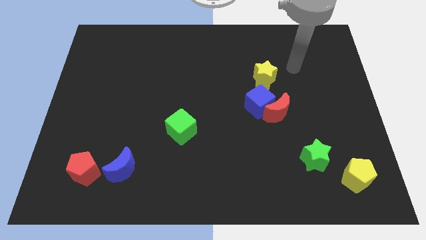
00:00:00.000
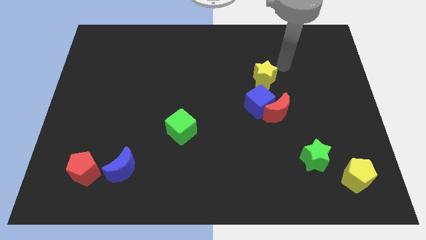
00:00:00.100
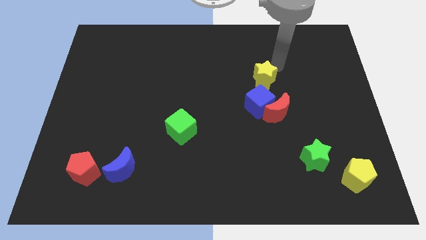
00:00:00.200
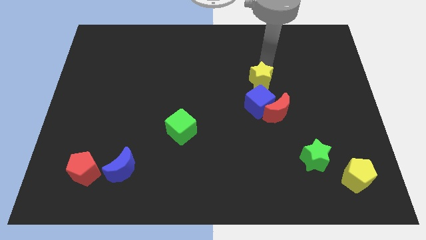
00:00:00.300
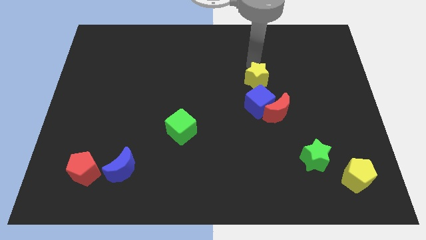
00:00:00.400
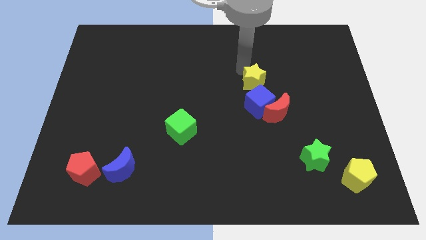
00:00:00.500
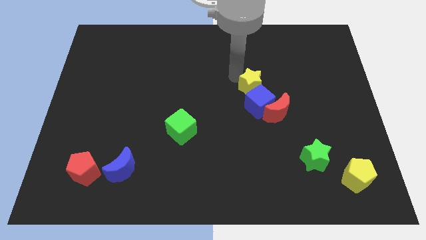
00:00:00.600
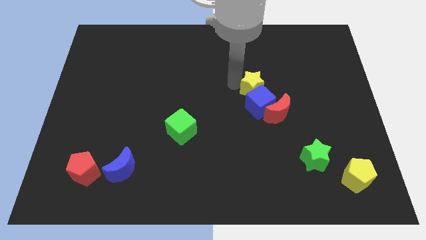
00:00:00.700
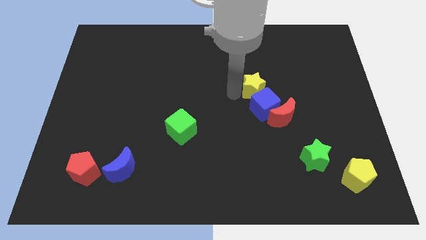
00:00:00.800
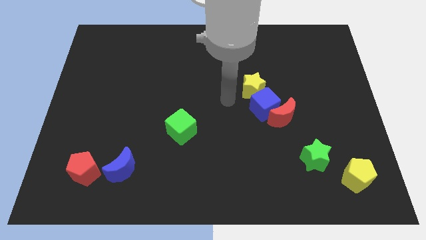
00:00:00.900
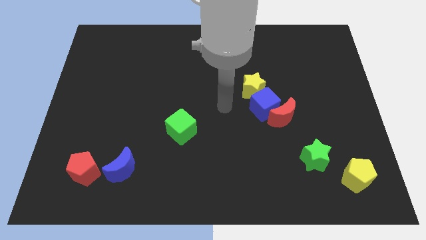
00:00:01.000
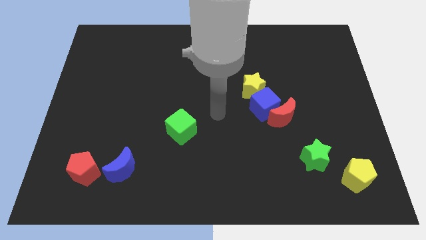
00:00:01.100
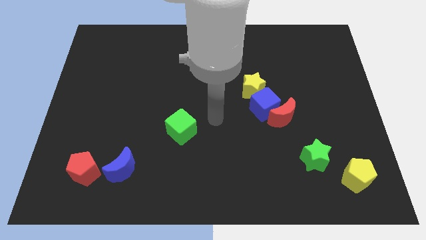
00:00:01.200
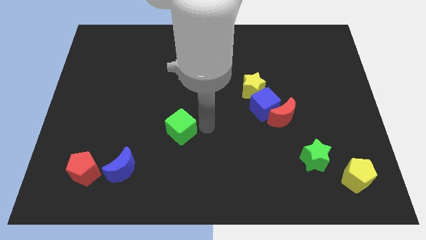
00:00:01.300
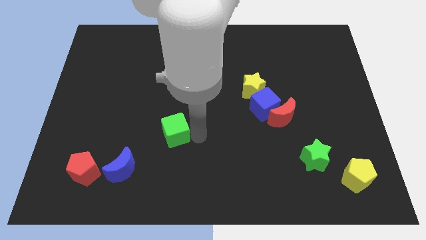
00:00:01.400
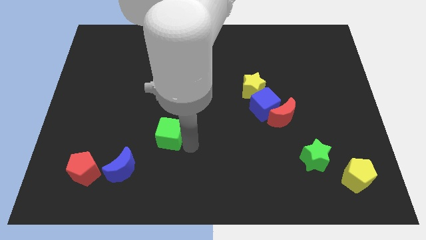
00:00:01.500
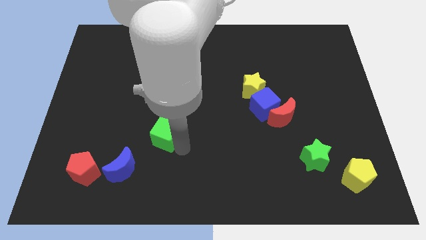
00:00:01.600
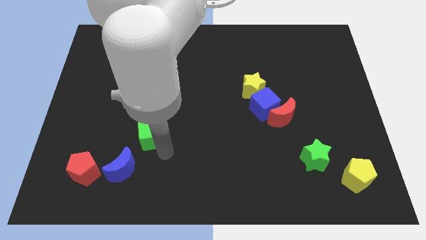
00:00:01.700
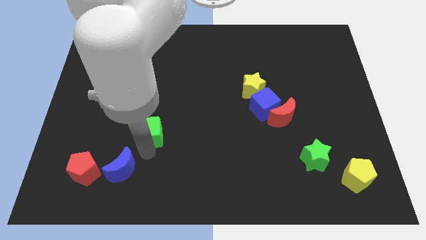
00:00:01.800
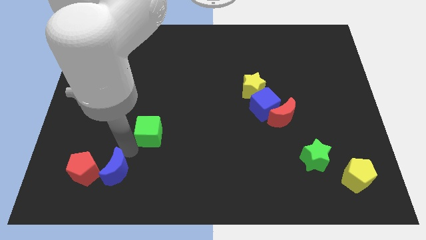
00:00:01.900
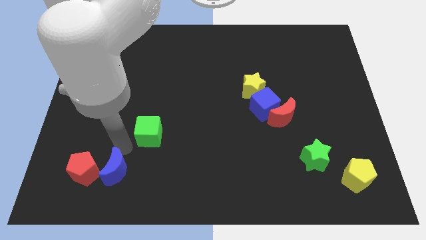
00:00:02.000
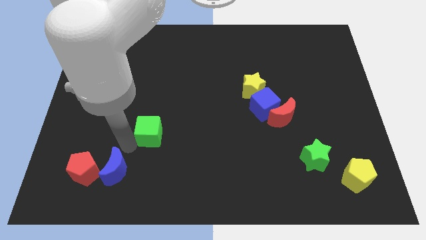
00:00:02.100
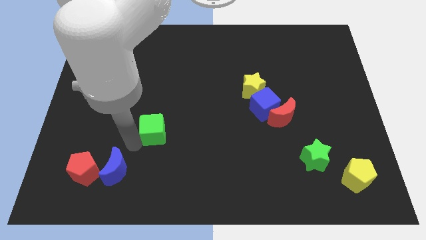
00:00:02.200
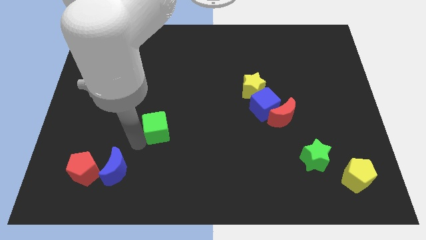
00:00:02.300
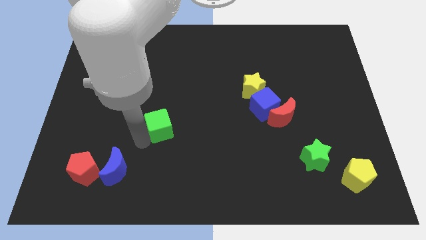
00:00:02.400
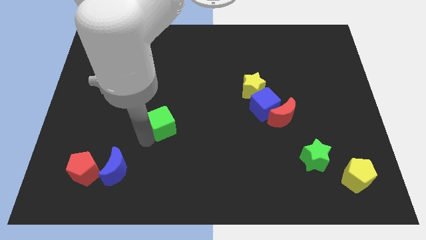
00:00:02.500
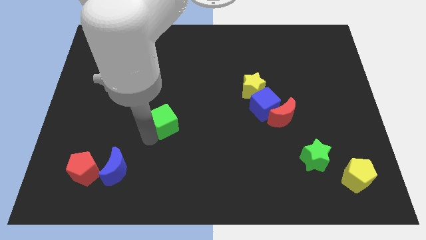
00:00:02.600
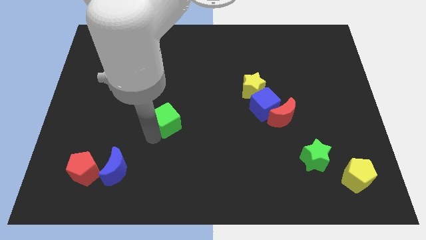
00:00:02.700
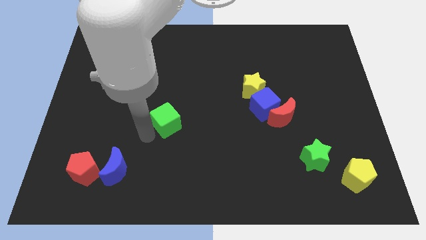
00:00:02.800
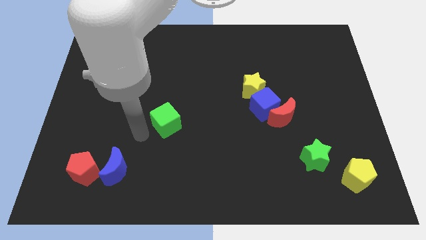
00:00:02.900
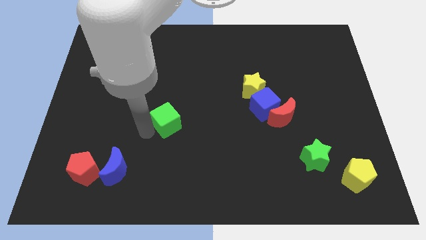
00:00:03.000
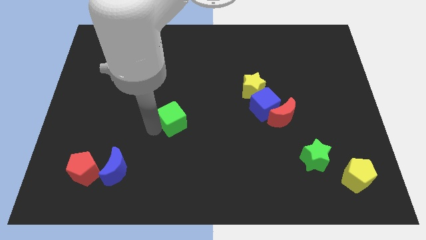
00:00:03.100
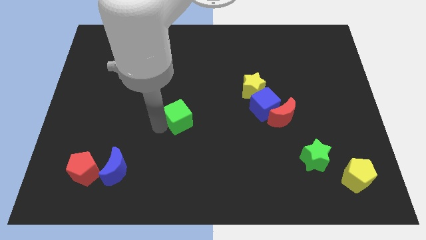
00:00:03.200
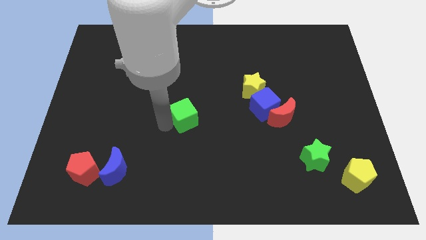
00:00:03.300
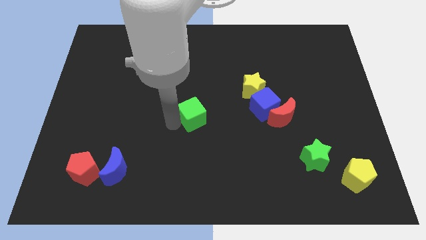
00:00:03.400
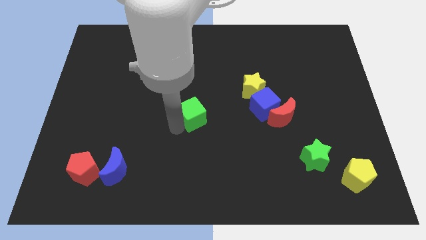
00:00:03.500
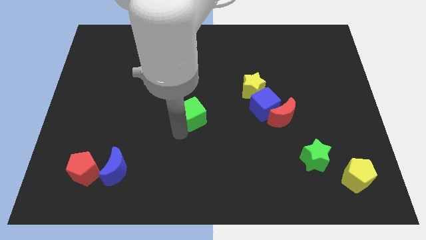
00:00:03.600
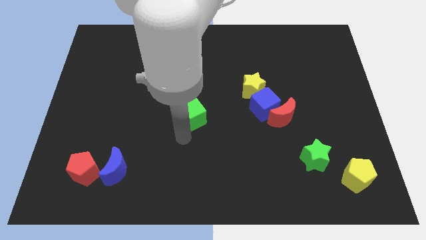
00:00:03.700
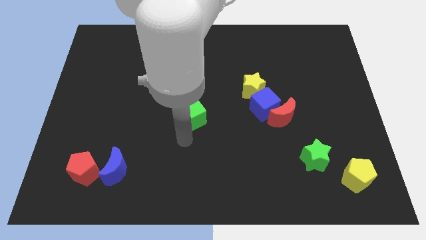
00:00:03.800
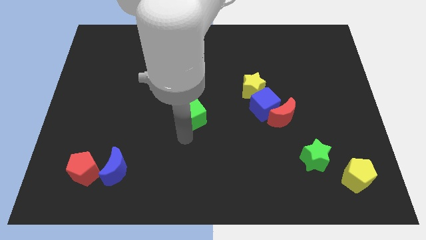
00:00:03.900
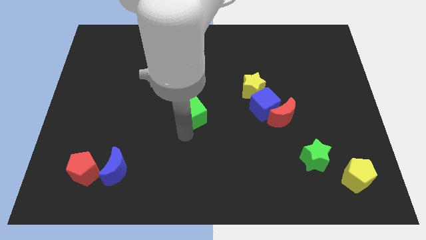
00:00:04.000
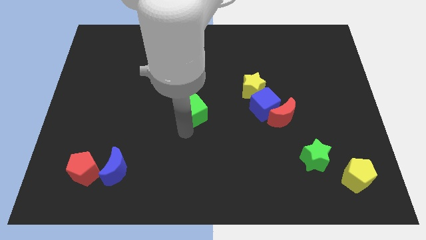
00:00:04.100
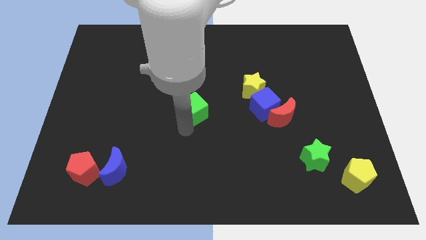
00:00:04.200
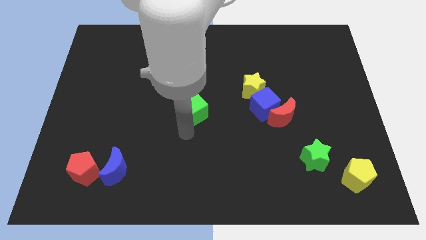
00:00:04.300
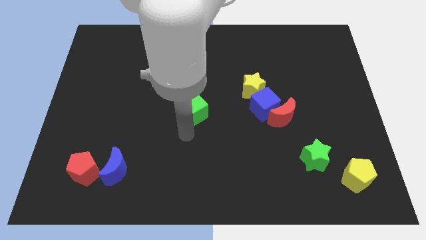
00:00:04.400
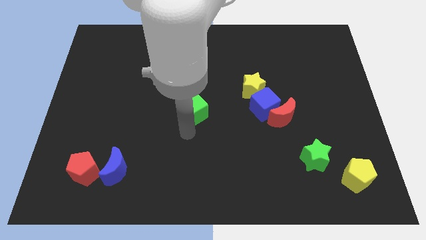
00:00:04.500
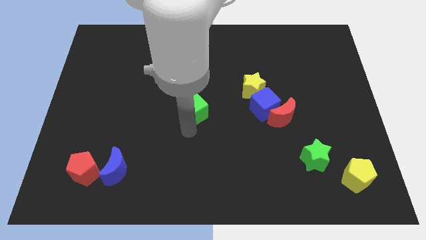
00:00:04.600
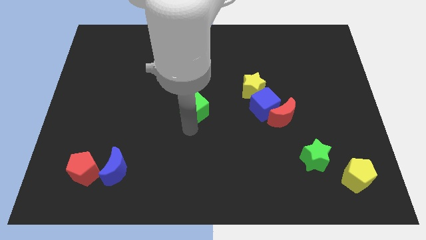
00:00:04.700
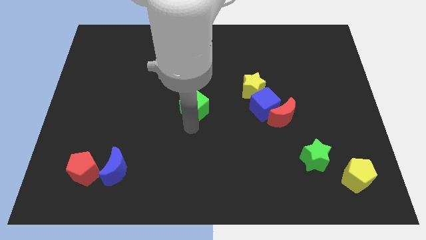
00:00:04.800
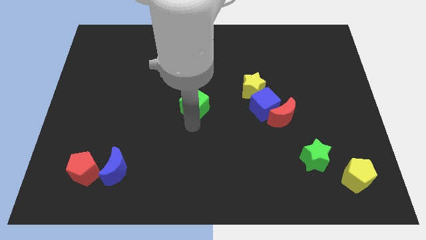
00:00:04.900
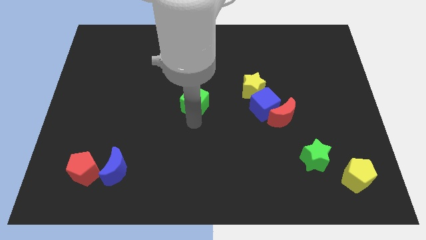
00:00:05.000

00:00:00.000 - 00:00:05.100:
slide the green cube up somewhat

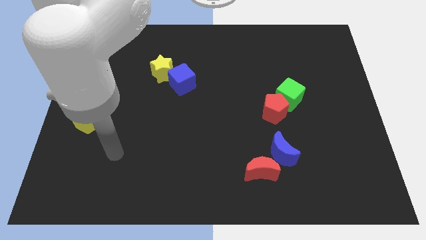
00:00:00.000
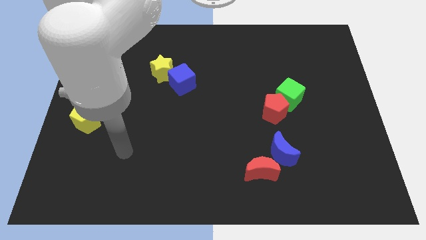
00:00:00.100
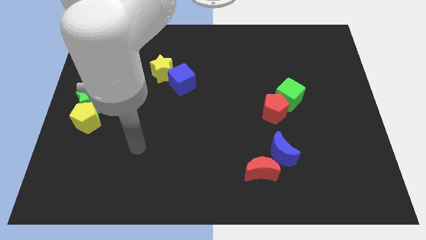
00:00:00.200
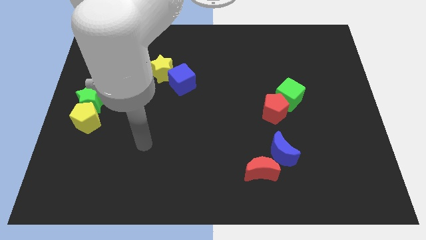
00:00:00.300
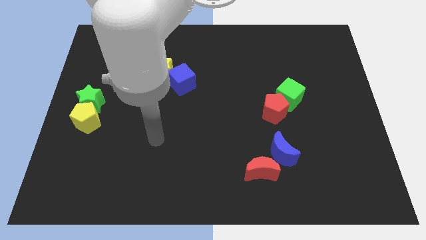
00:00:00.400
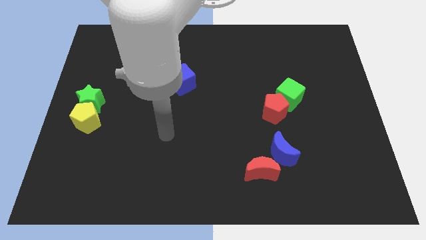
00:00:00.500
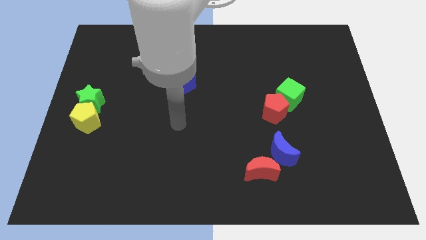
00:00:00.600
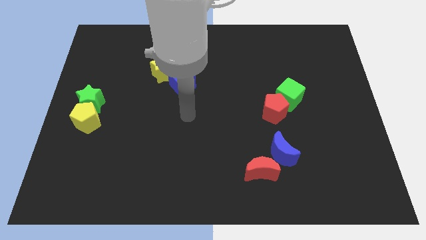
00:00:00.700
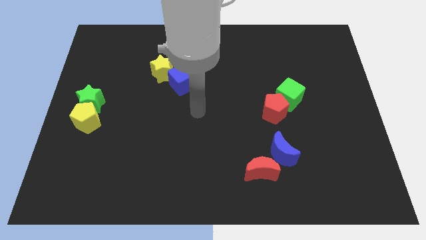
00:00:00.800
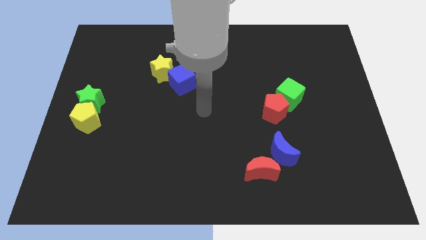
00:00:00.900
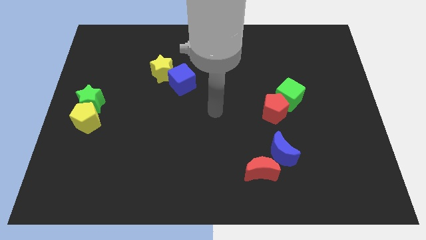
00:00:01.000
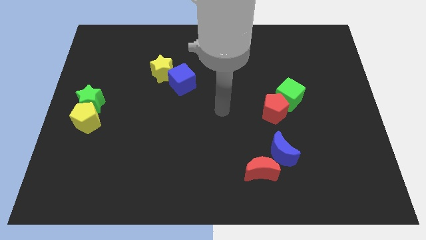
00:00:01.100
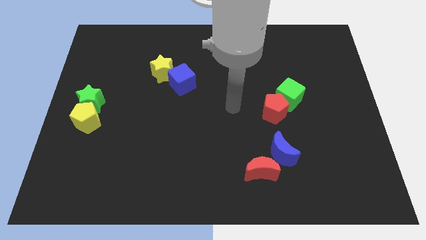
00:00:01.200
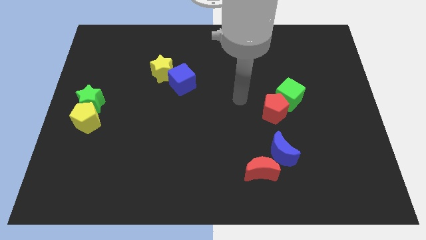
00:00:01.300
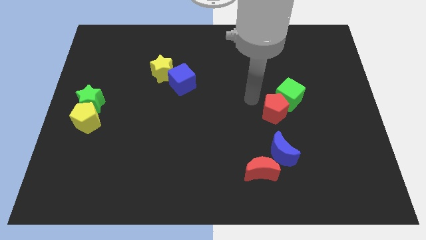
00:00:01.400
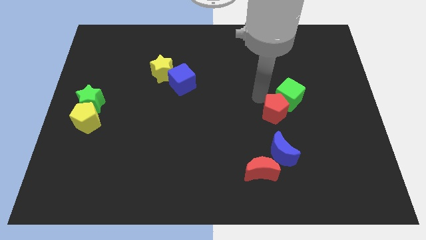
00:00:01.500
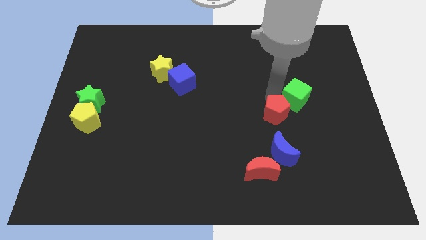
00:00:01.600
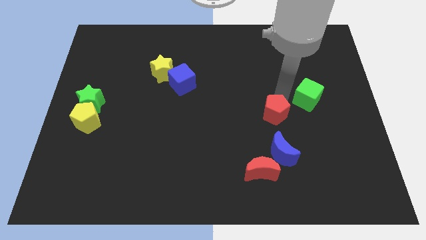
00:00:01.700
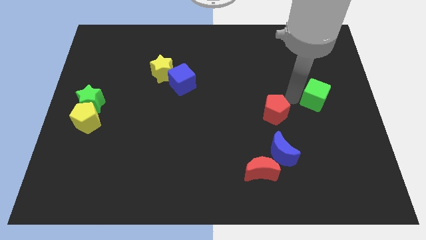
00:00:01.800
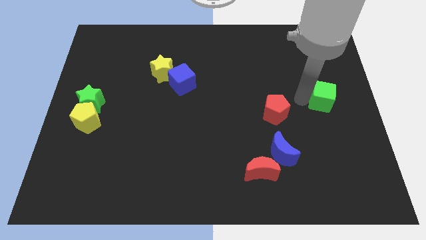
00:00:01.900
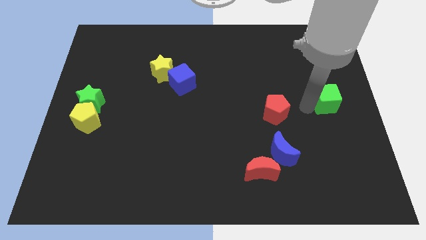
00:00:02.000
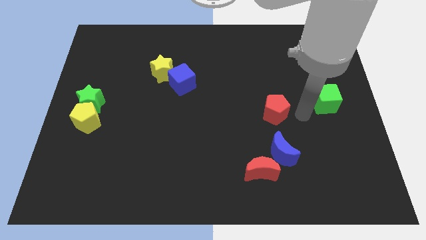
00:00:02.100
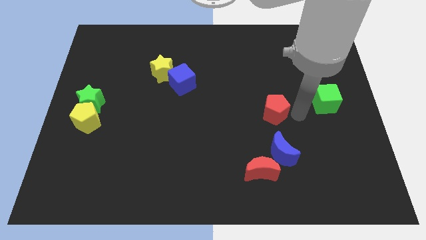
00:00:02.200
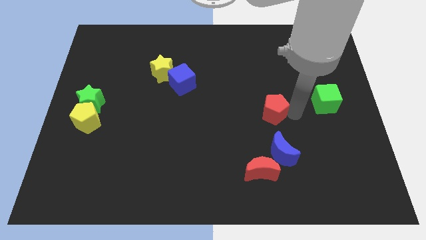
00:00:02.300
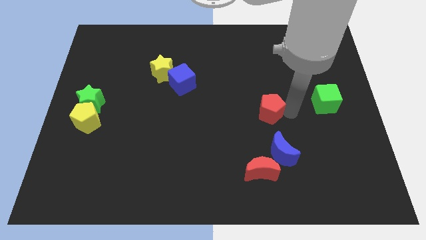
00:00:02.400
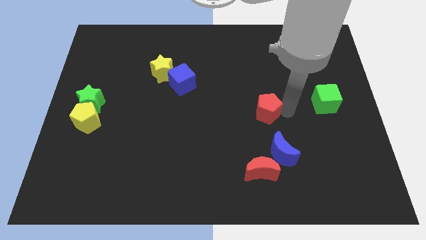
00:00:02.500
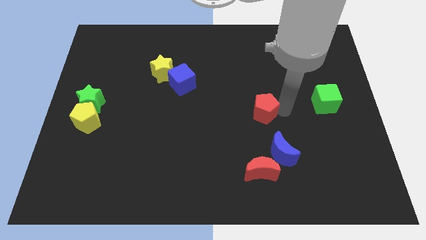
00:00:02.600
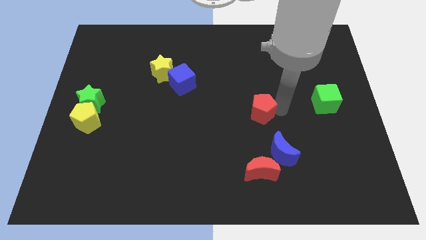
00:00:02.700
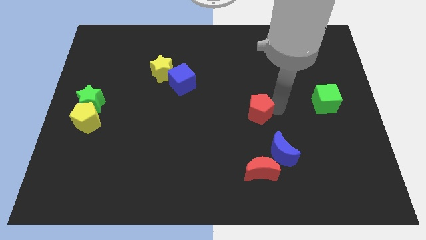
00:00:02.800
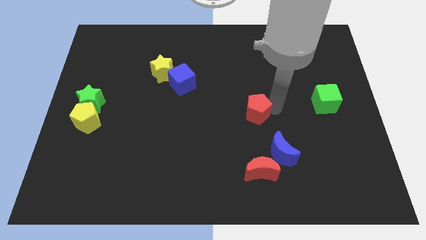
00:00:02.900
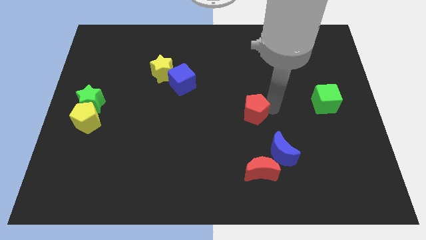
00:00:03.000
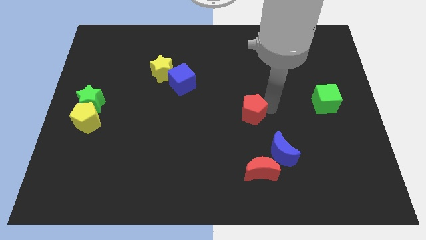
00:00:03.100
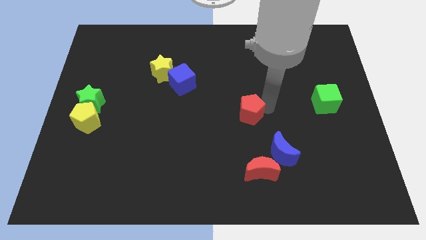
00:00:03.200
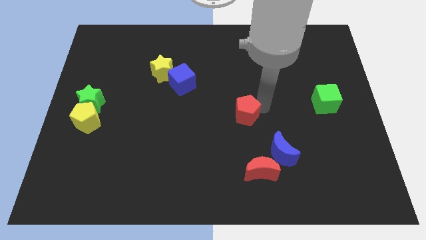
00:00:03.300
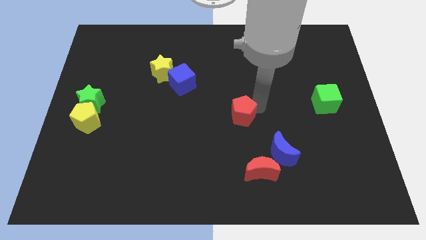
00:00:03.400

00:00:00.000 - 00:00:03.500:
slightly slide the red pentagon left
